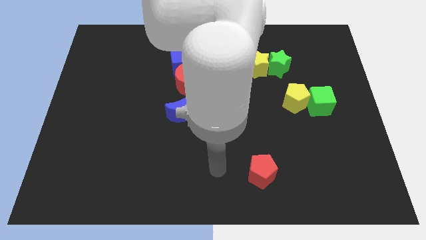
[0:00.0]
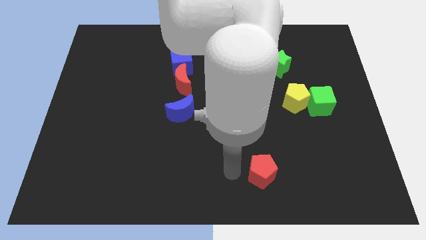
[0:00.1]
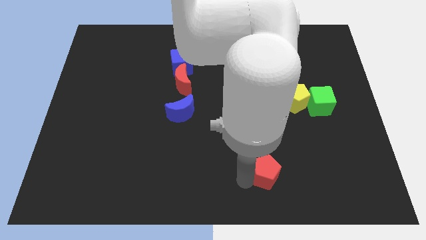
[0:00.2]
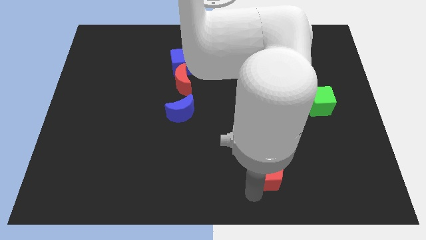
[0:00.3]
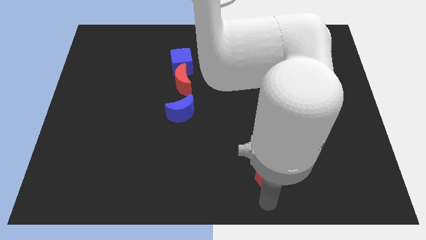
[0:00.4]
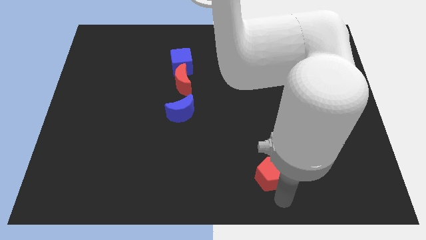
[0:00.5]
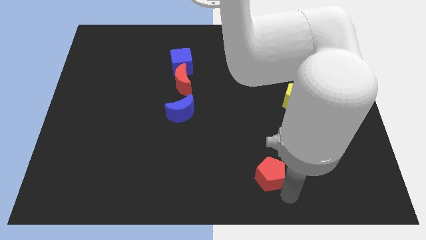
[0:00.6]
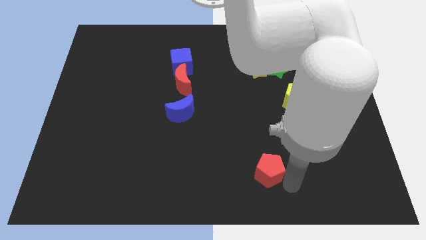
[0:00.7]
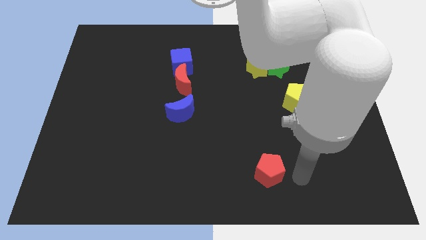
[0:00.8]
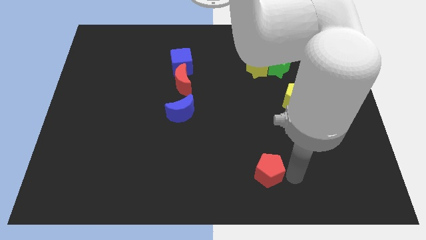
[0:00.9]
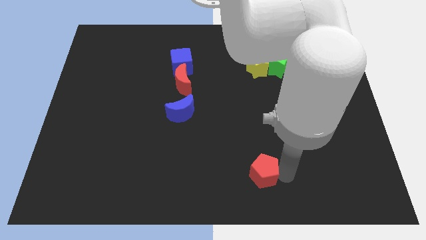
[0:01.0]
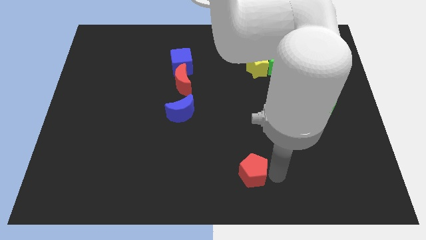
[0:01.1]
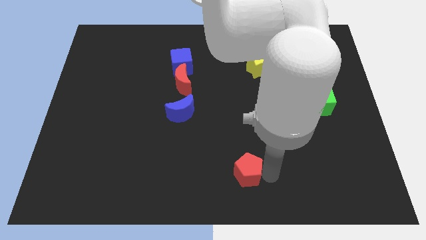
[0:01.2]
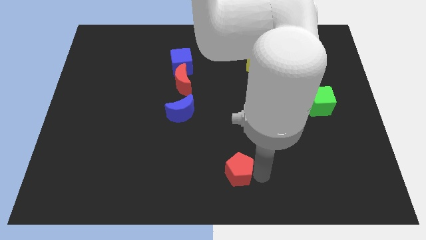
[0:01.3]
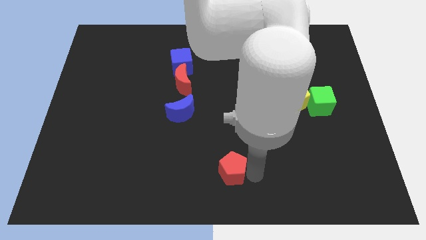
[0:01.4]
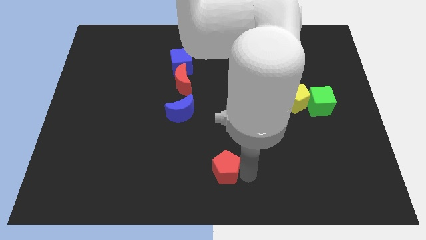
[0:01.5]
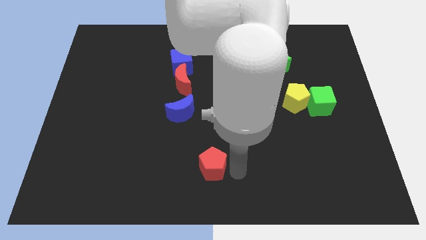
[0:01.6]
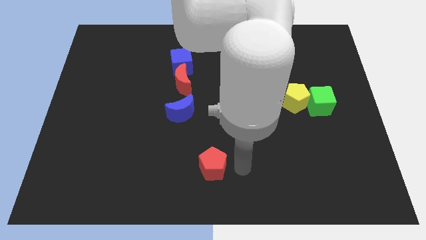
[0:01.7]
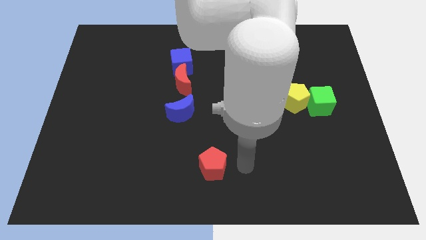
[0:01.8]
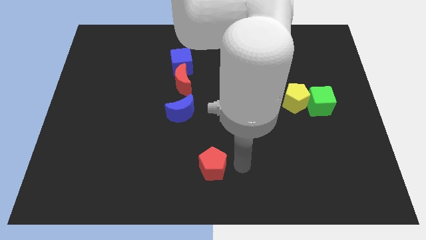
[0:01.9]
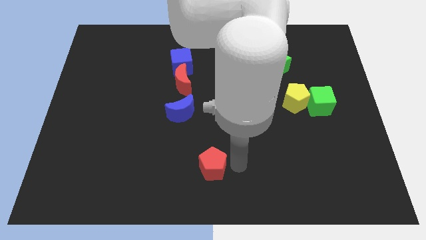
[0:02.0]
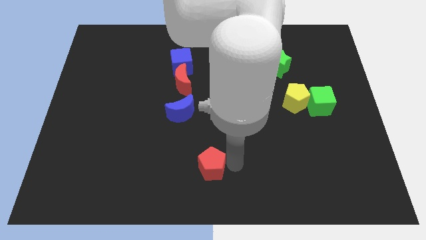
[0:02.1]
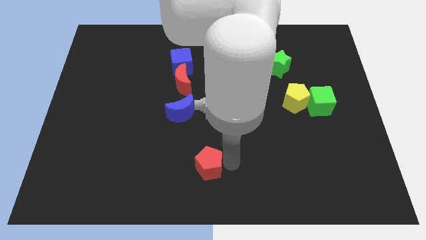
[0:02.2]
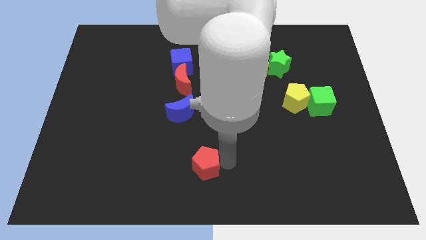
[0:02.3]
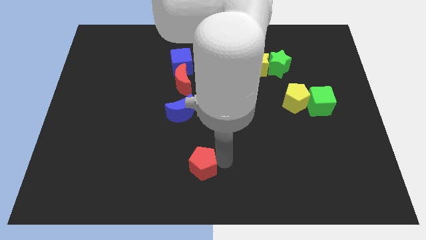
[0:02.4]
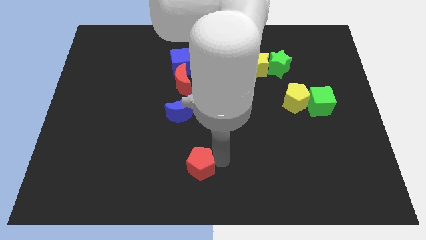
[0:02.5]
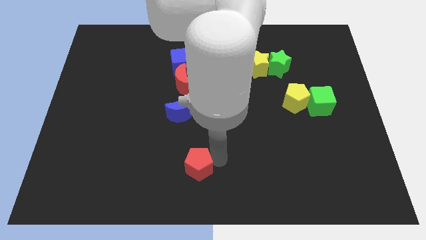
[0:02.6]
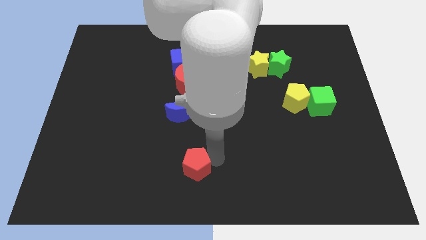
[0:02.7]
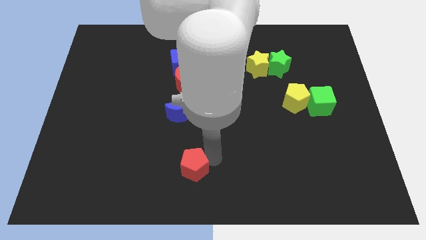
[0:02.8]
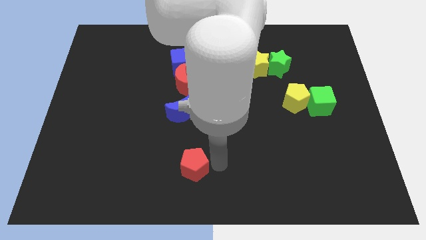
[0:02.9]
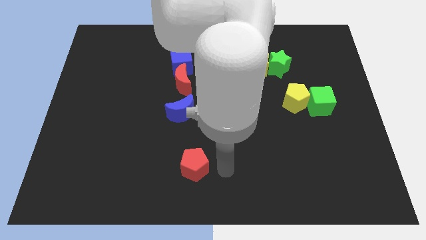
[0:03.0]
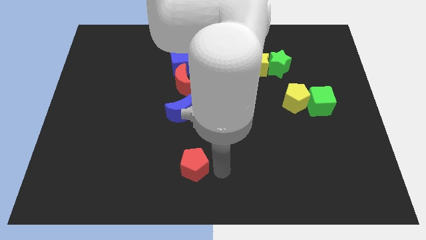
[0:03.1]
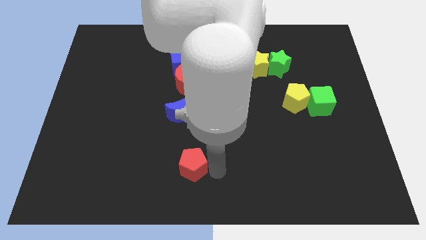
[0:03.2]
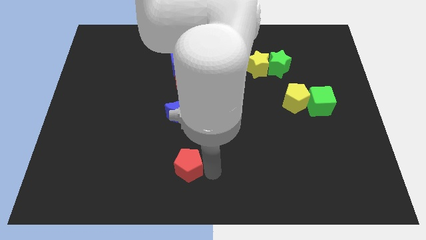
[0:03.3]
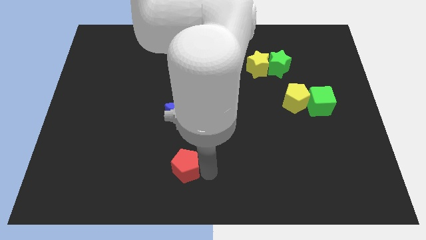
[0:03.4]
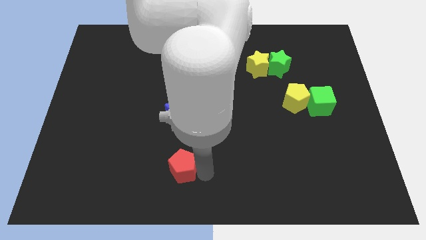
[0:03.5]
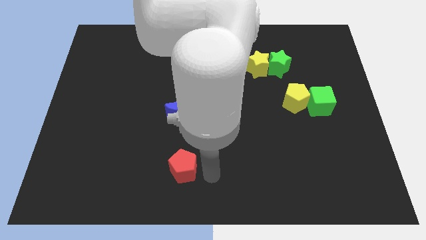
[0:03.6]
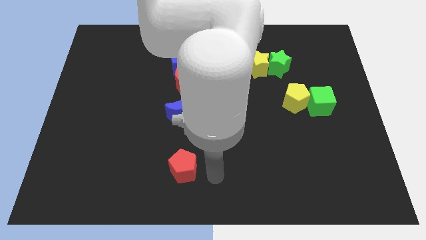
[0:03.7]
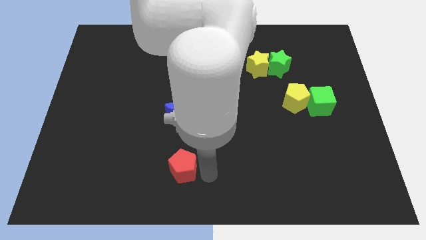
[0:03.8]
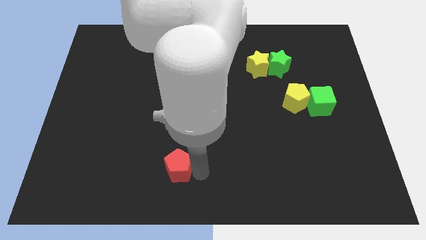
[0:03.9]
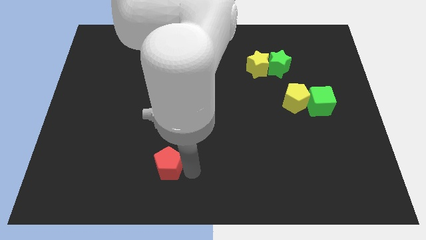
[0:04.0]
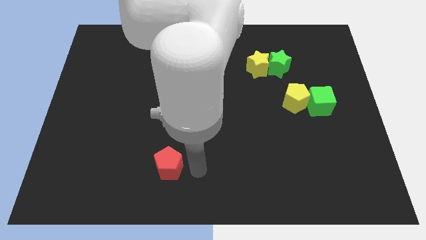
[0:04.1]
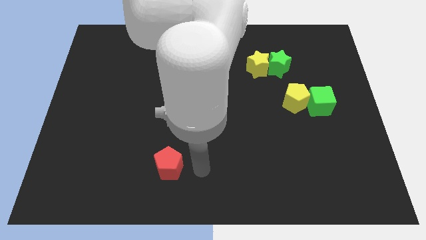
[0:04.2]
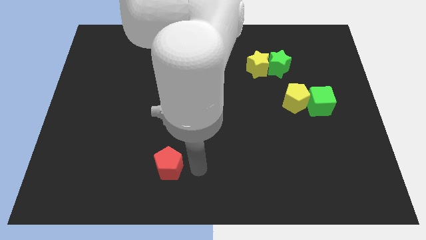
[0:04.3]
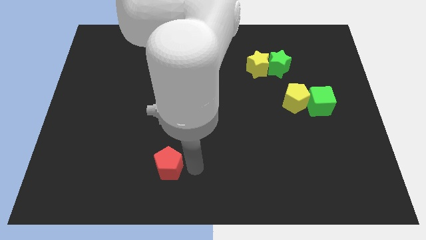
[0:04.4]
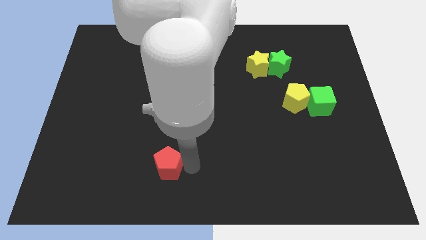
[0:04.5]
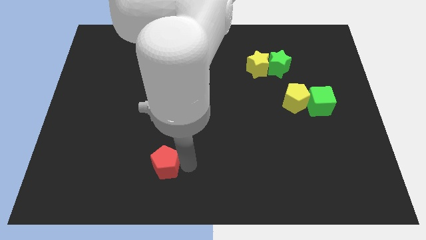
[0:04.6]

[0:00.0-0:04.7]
move the red pentagon left

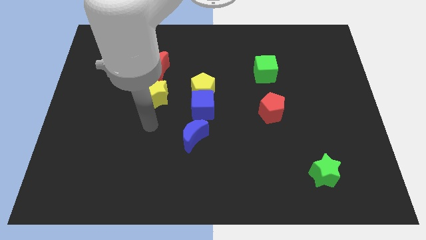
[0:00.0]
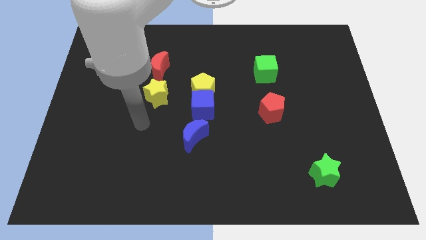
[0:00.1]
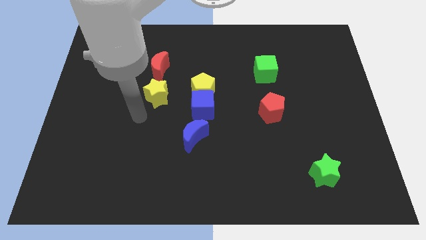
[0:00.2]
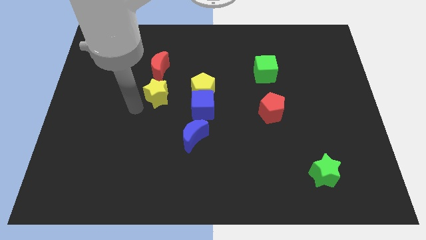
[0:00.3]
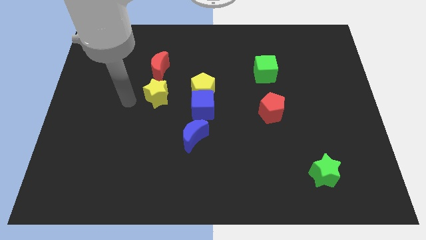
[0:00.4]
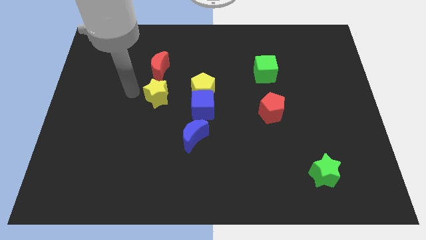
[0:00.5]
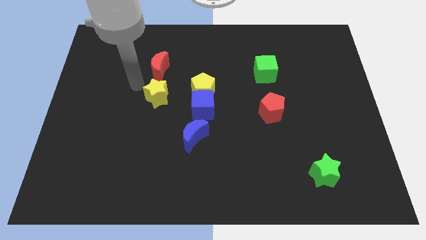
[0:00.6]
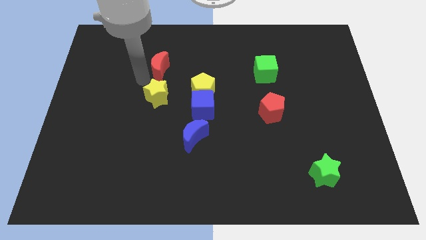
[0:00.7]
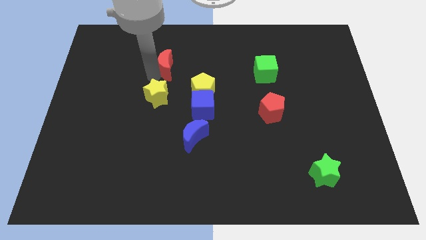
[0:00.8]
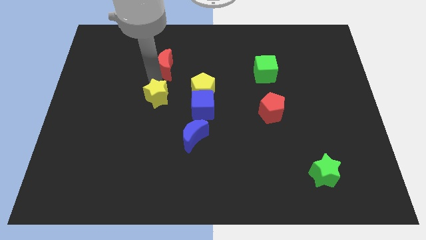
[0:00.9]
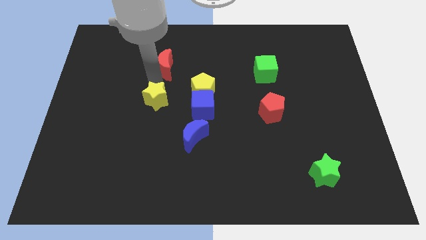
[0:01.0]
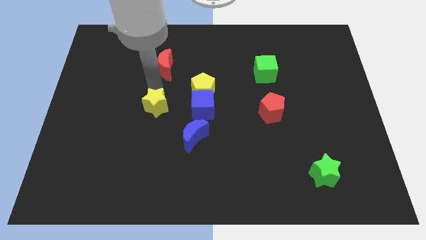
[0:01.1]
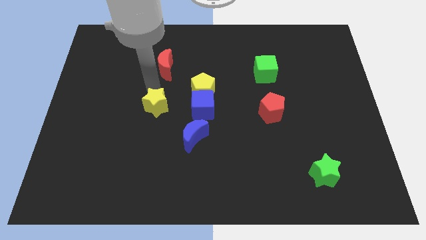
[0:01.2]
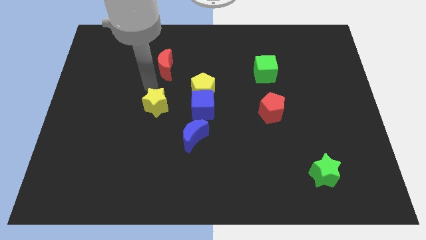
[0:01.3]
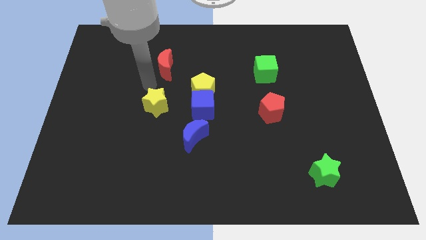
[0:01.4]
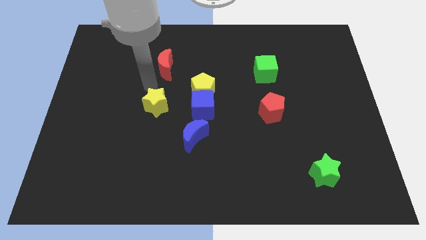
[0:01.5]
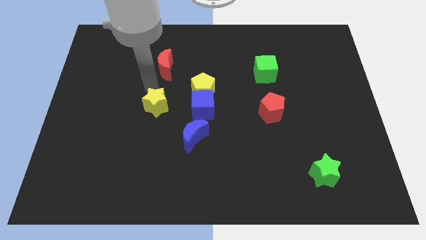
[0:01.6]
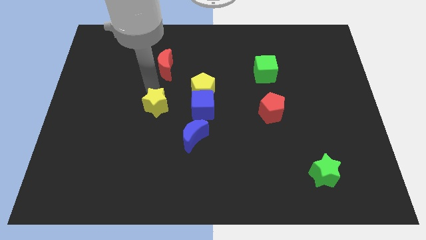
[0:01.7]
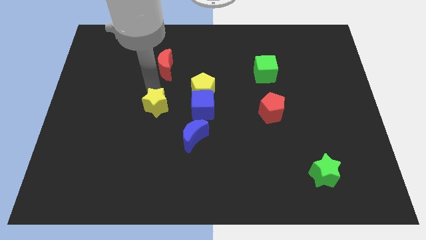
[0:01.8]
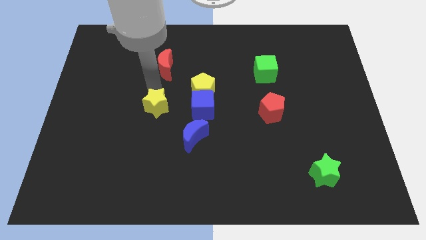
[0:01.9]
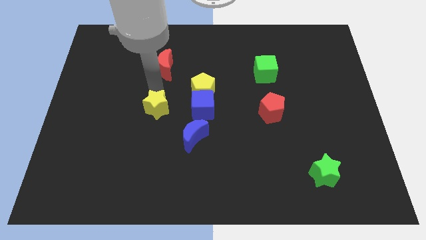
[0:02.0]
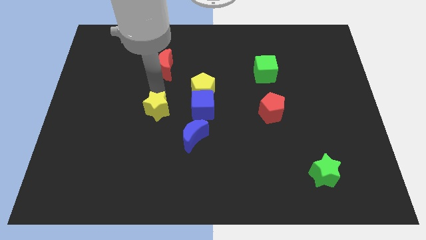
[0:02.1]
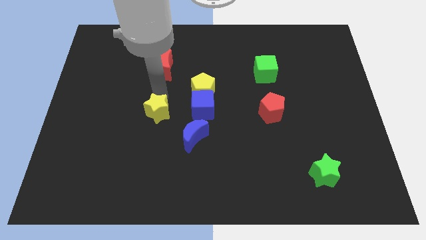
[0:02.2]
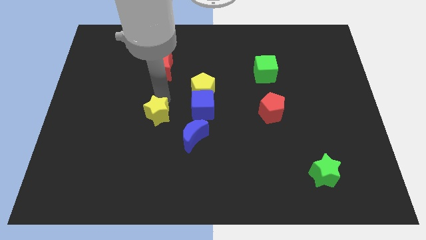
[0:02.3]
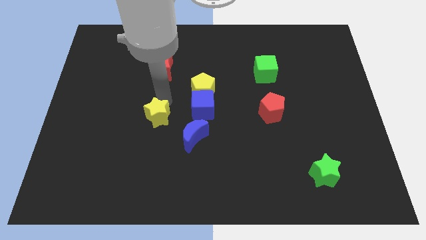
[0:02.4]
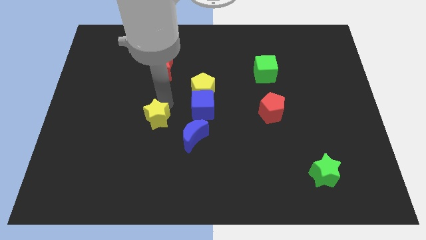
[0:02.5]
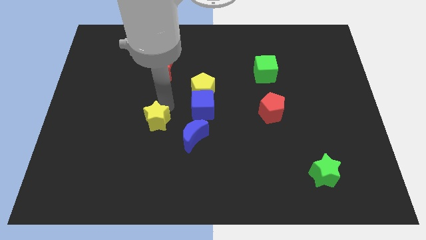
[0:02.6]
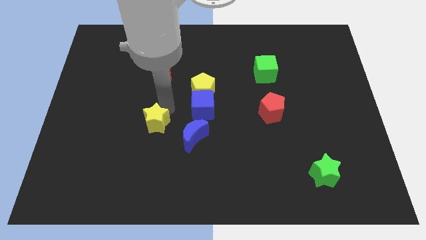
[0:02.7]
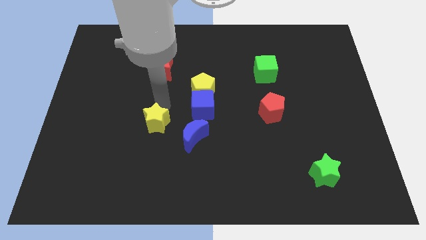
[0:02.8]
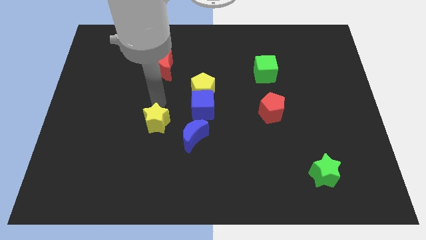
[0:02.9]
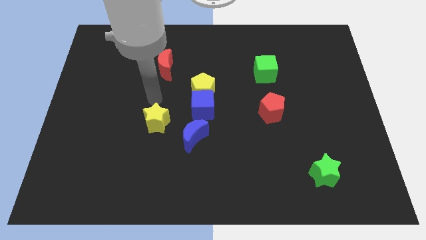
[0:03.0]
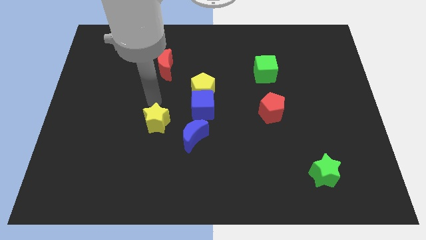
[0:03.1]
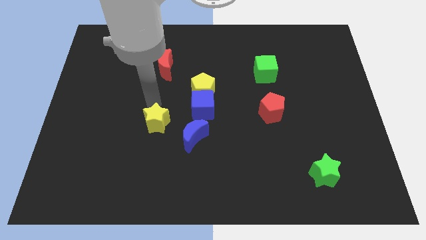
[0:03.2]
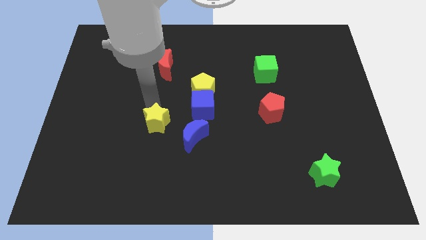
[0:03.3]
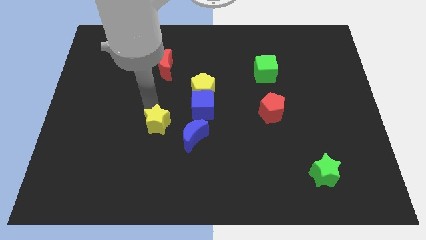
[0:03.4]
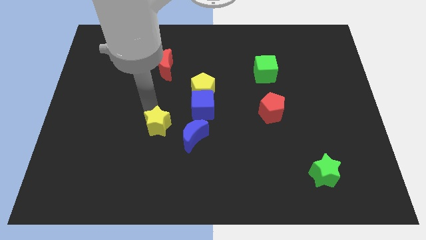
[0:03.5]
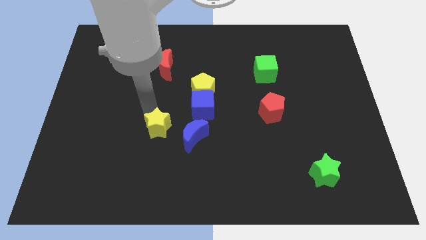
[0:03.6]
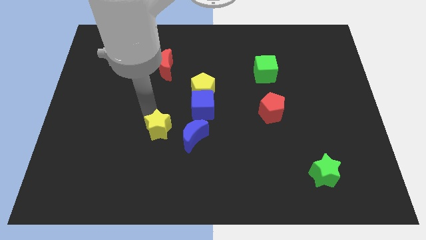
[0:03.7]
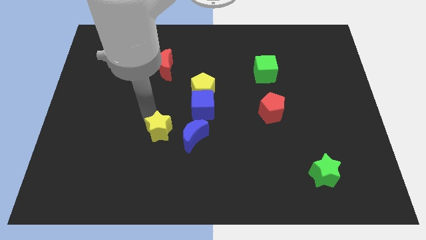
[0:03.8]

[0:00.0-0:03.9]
slightly push the yellow star downwards and then right
